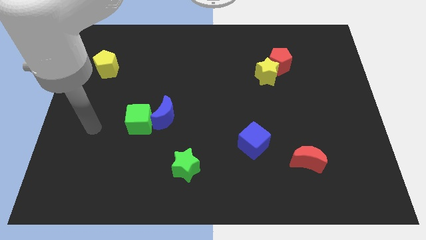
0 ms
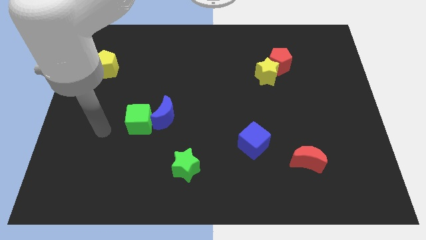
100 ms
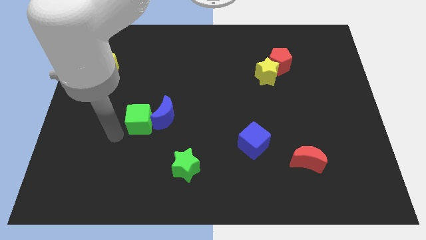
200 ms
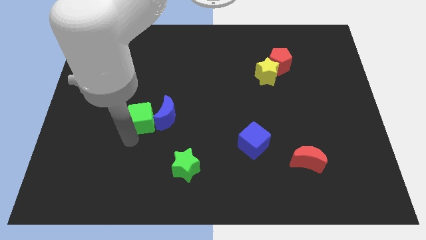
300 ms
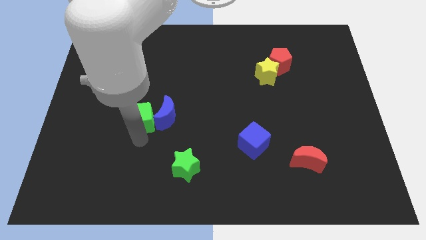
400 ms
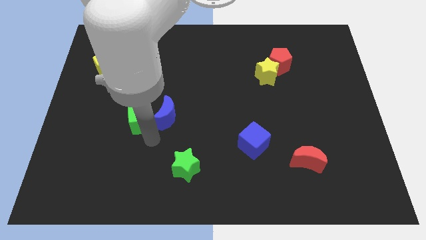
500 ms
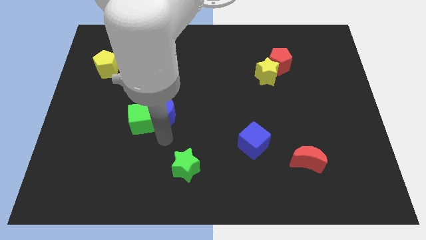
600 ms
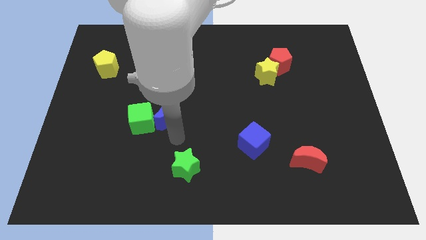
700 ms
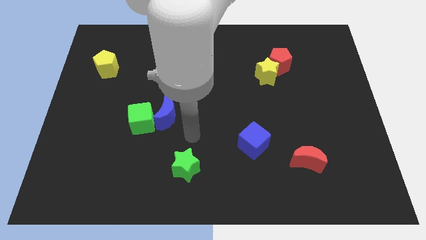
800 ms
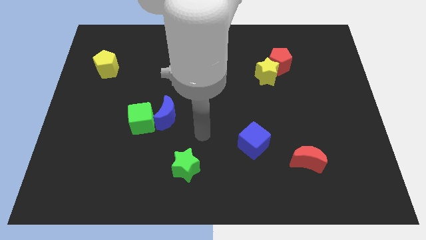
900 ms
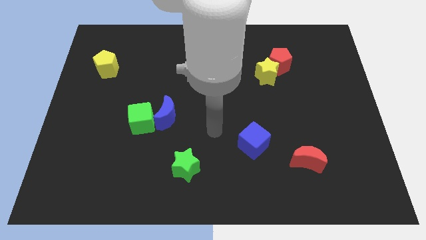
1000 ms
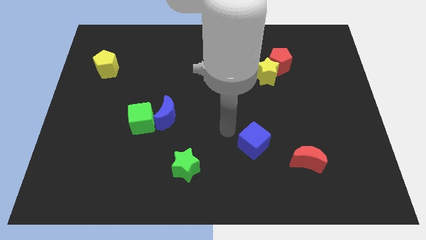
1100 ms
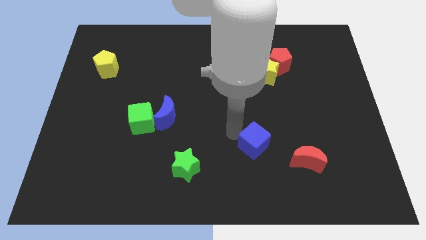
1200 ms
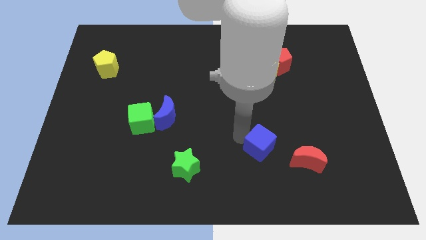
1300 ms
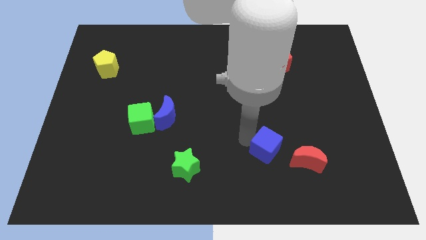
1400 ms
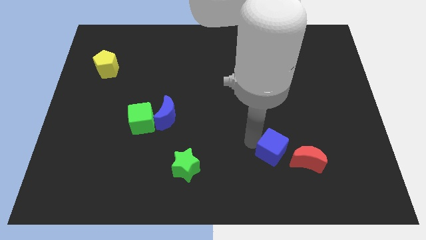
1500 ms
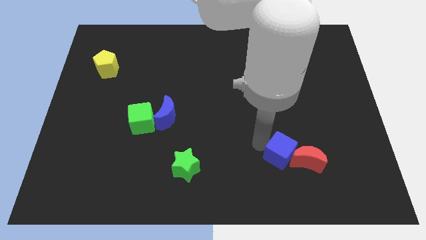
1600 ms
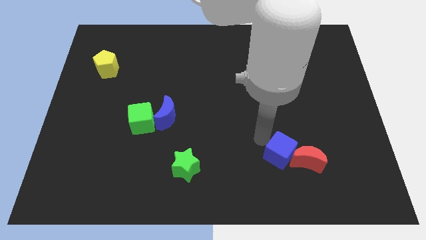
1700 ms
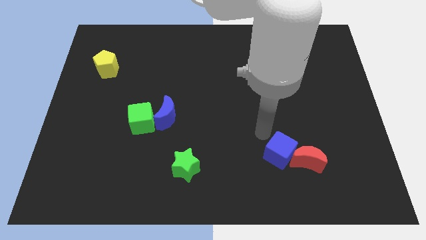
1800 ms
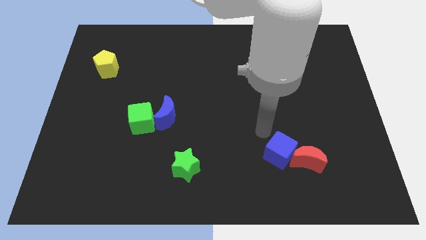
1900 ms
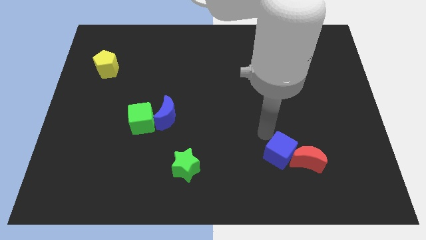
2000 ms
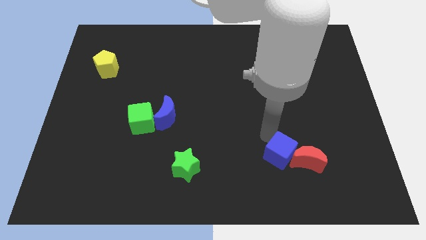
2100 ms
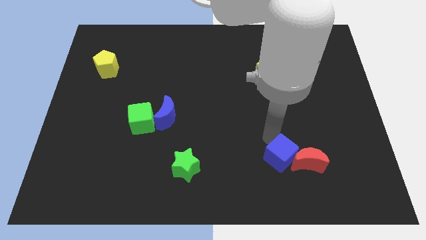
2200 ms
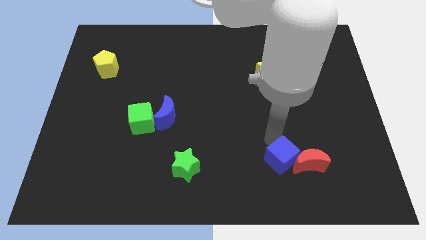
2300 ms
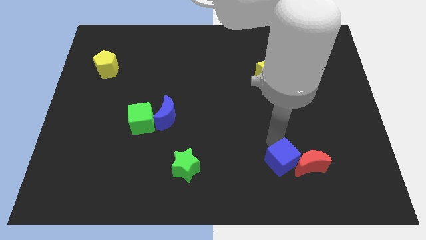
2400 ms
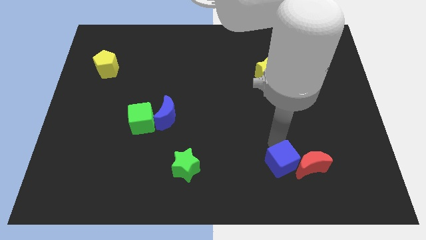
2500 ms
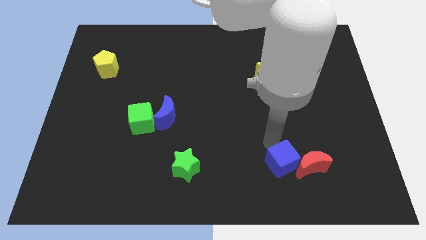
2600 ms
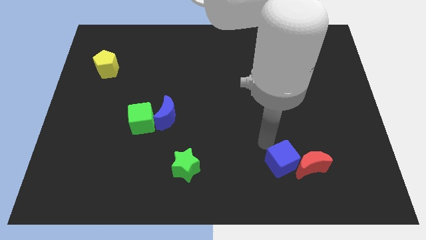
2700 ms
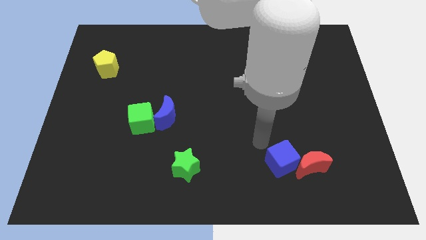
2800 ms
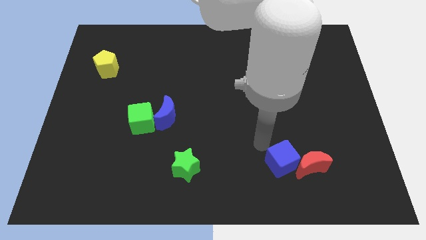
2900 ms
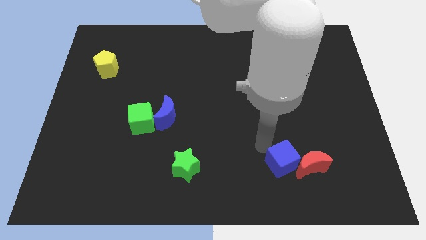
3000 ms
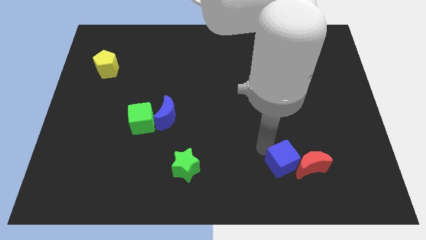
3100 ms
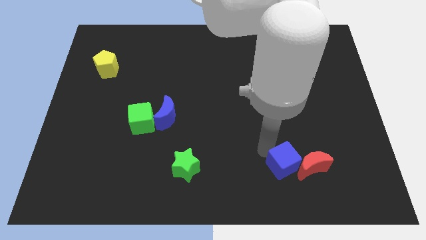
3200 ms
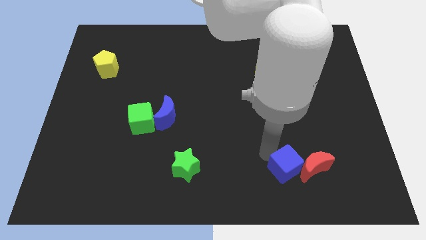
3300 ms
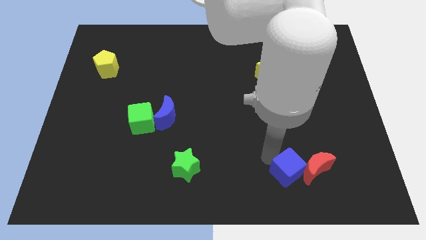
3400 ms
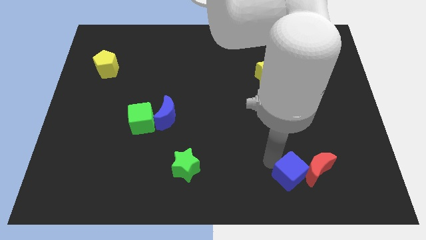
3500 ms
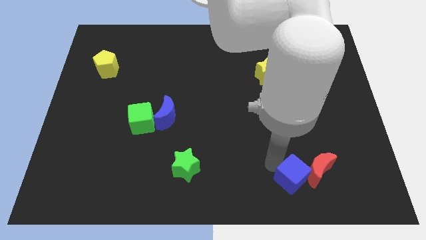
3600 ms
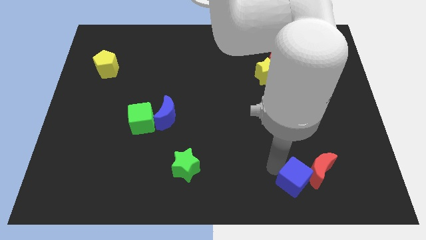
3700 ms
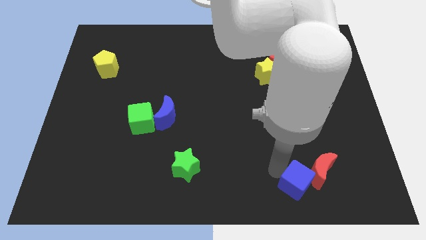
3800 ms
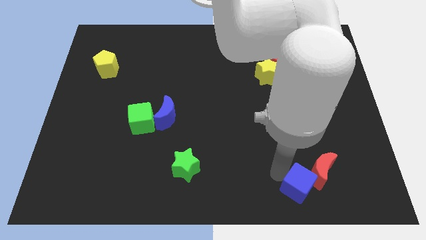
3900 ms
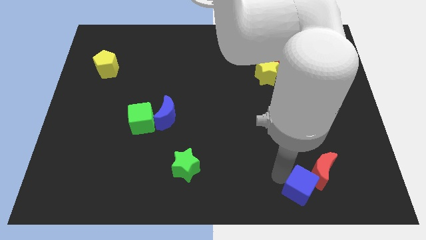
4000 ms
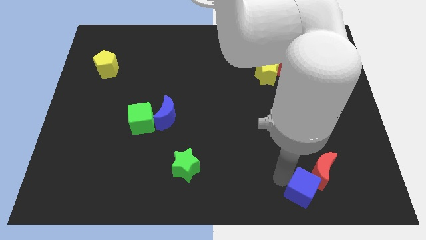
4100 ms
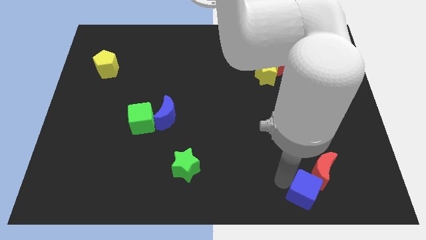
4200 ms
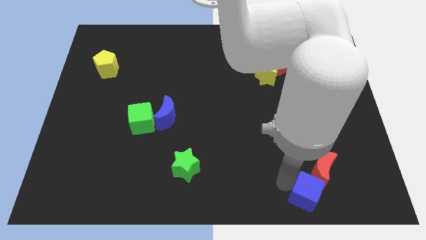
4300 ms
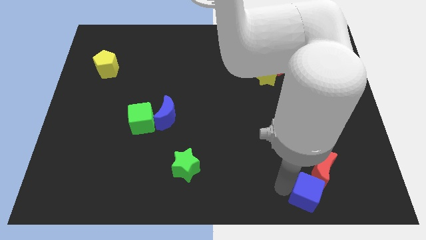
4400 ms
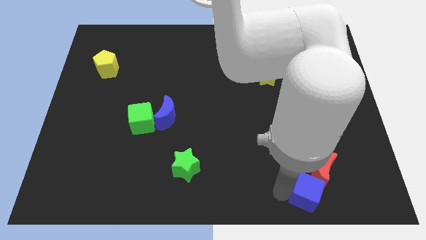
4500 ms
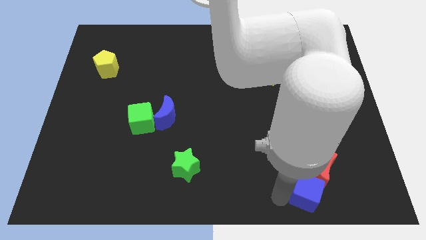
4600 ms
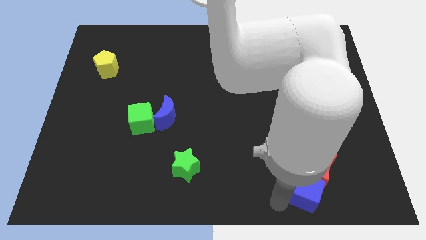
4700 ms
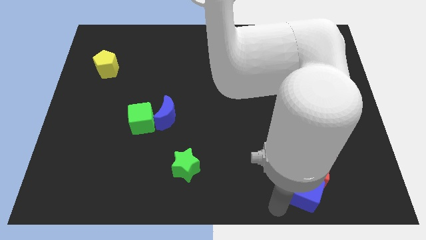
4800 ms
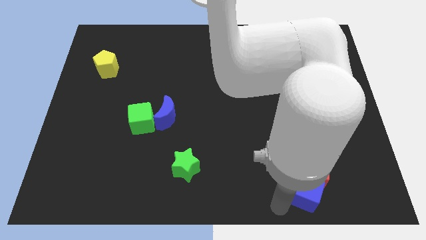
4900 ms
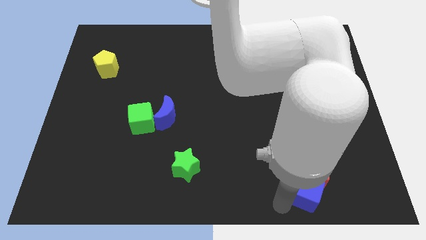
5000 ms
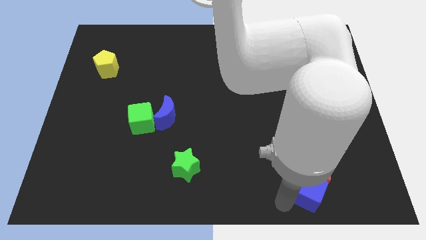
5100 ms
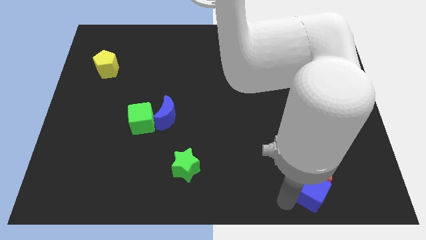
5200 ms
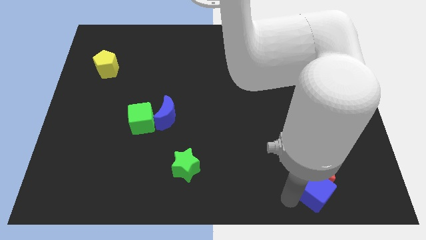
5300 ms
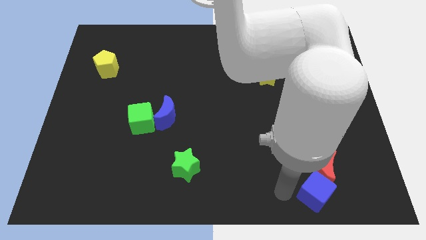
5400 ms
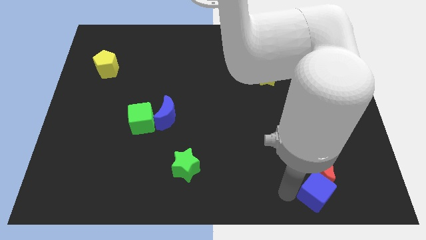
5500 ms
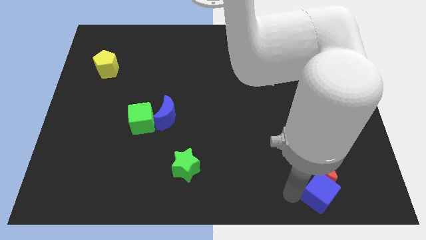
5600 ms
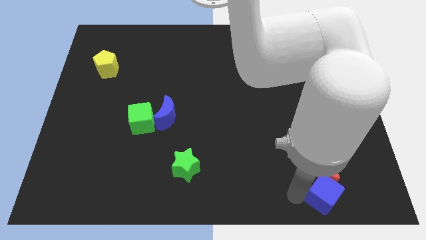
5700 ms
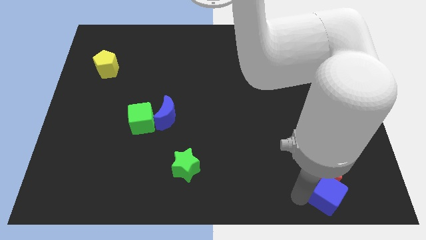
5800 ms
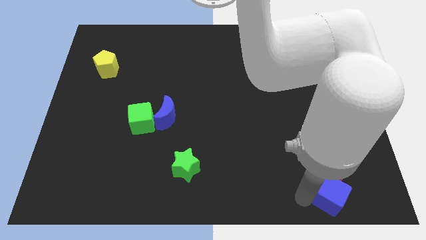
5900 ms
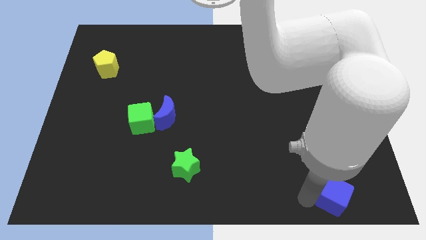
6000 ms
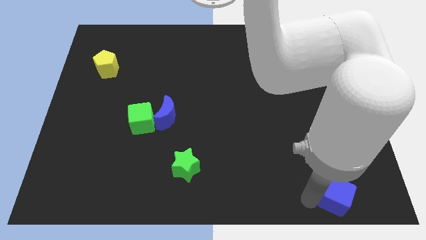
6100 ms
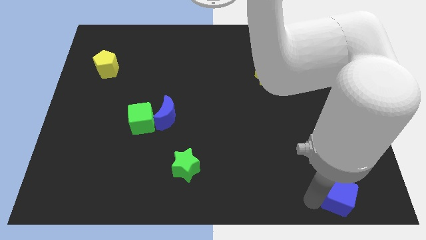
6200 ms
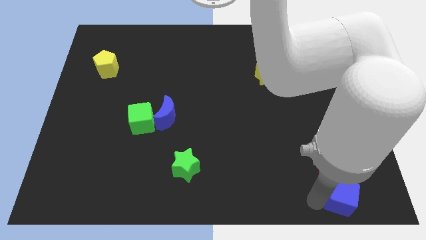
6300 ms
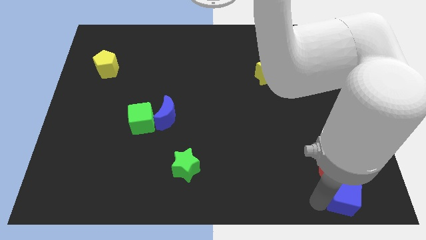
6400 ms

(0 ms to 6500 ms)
move the blue cube to the bottom right corner
